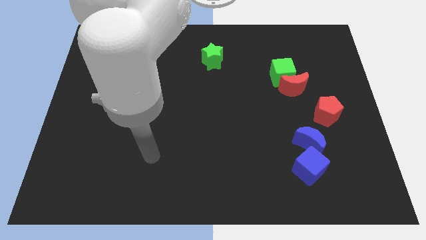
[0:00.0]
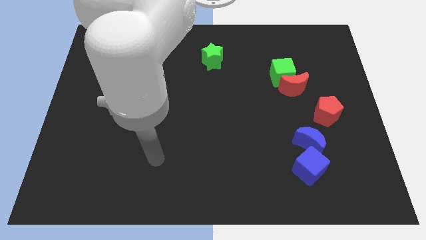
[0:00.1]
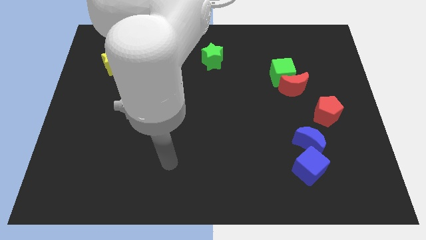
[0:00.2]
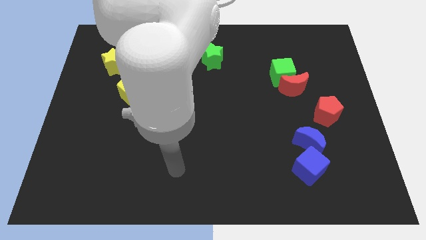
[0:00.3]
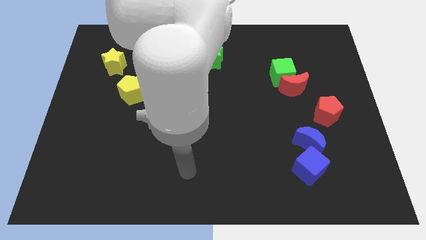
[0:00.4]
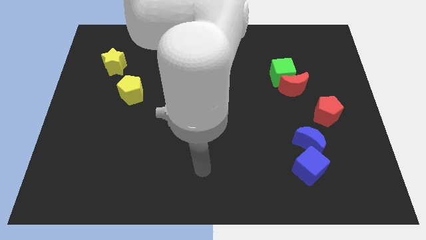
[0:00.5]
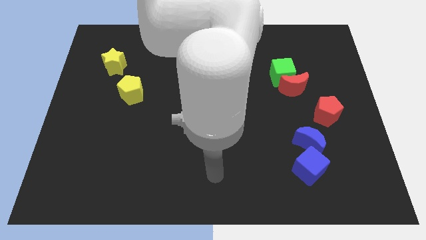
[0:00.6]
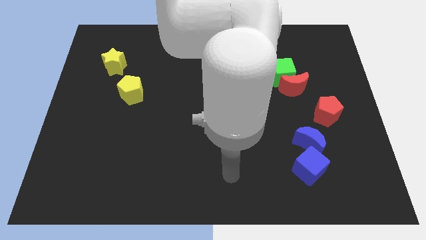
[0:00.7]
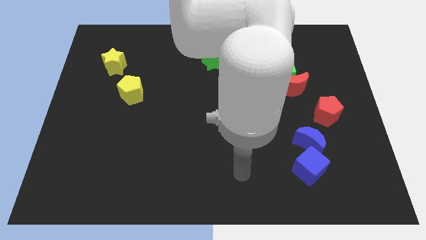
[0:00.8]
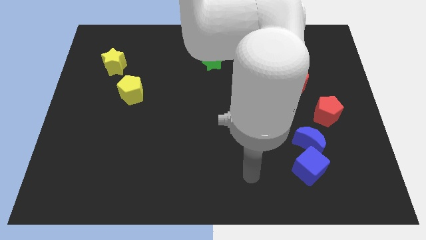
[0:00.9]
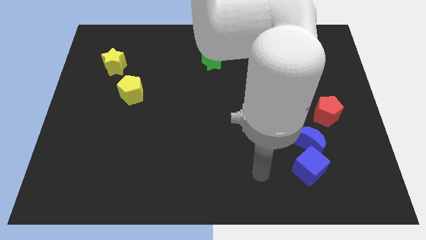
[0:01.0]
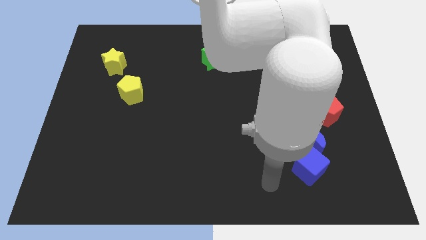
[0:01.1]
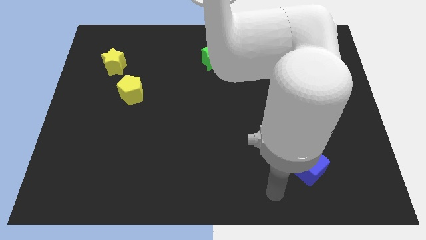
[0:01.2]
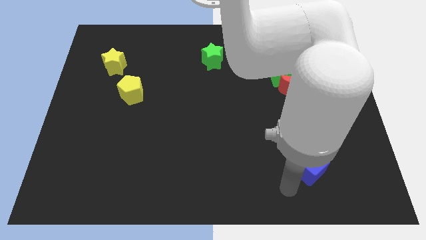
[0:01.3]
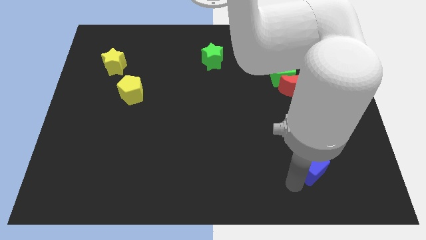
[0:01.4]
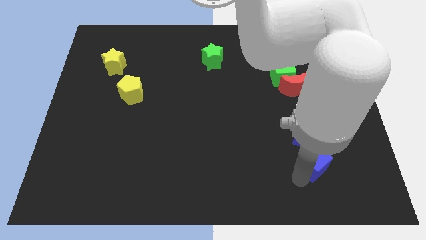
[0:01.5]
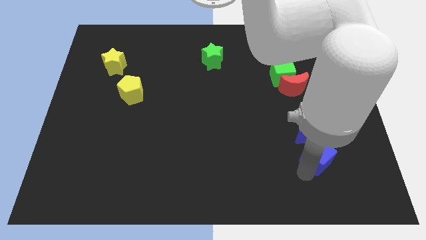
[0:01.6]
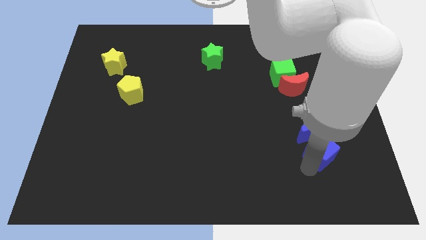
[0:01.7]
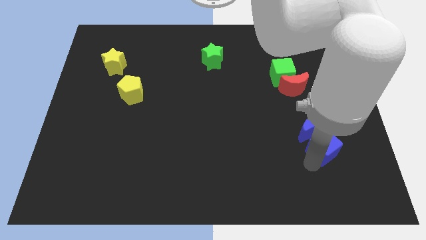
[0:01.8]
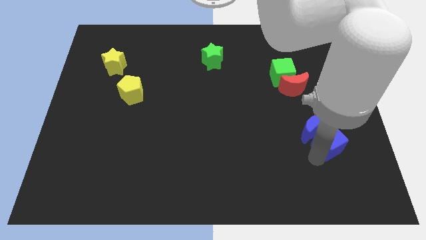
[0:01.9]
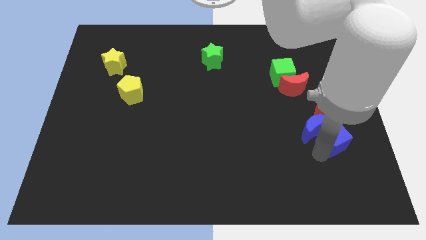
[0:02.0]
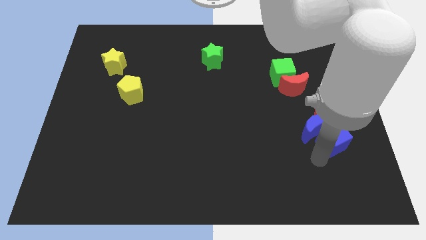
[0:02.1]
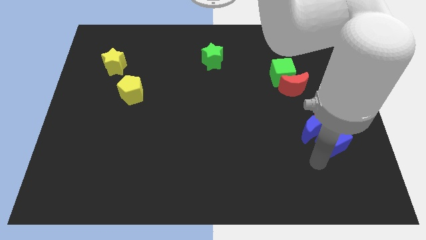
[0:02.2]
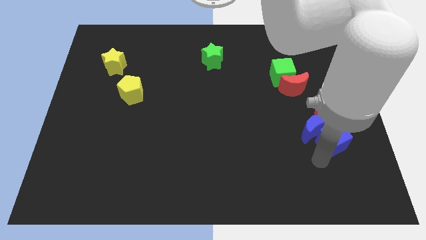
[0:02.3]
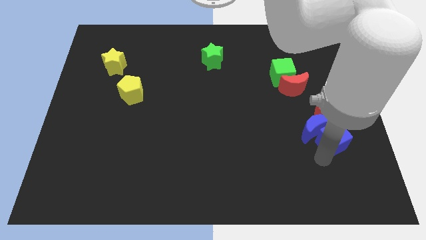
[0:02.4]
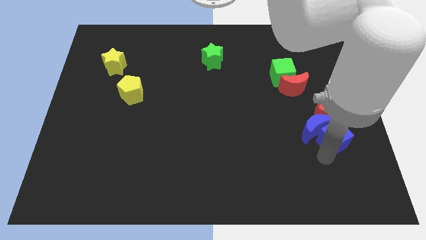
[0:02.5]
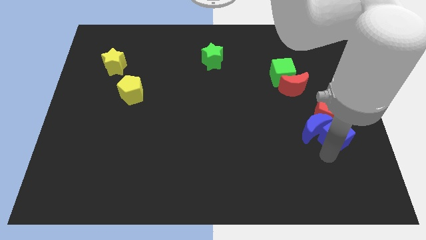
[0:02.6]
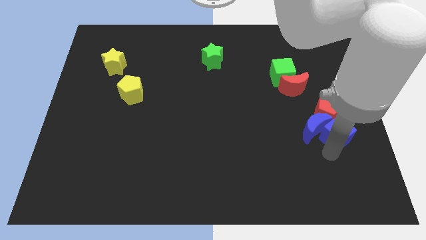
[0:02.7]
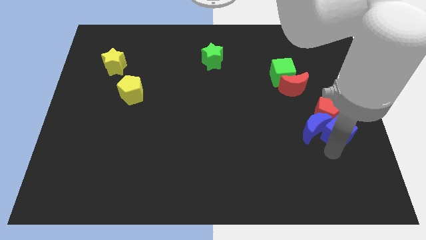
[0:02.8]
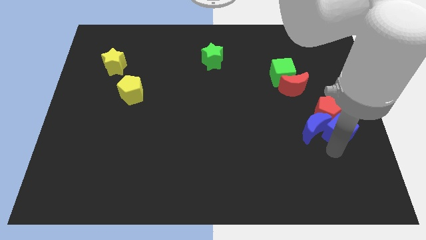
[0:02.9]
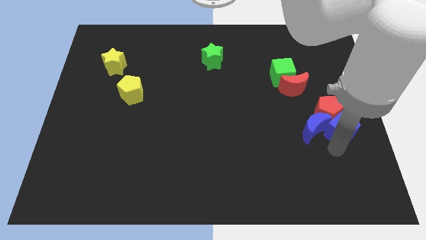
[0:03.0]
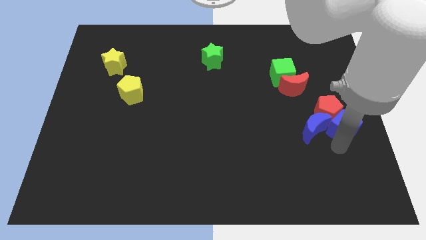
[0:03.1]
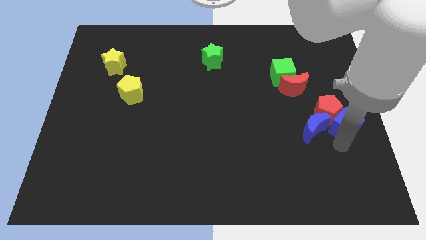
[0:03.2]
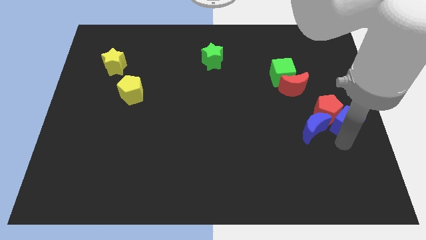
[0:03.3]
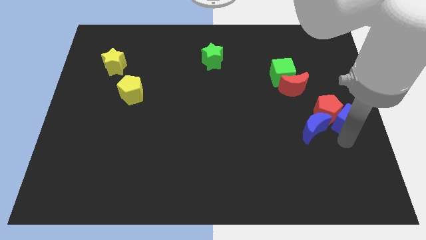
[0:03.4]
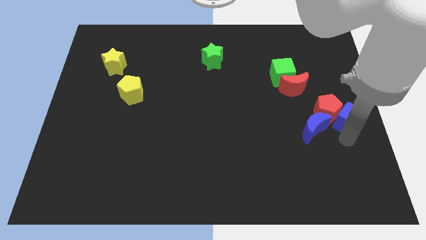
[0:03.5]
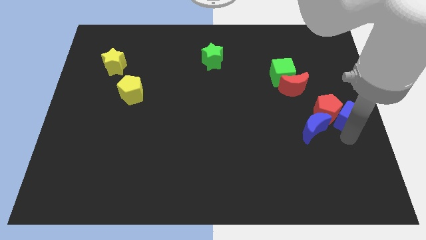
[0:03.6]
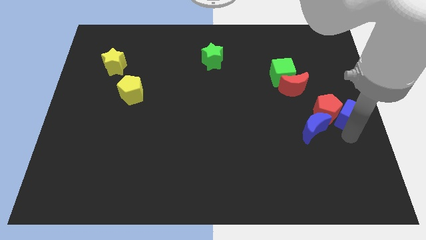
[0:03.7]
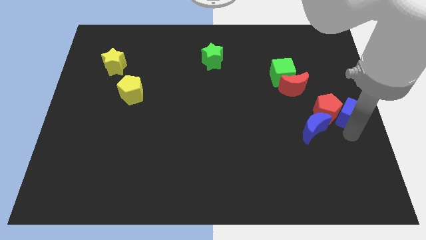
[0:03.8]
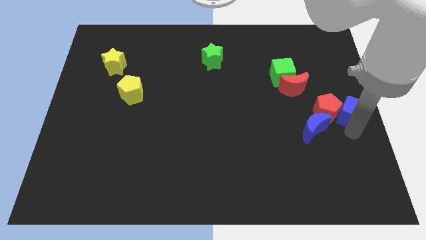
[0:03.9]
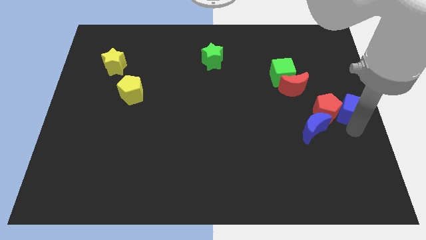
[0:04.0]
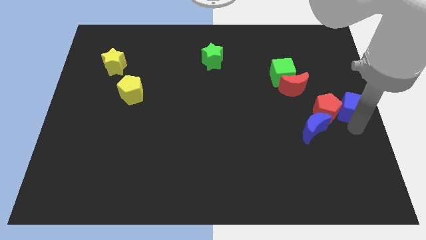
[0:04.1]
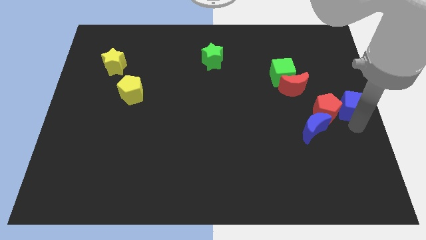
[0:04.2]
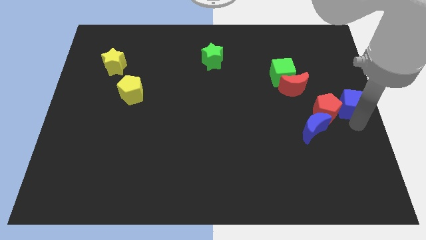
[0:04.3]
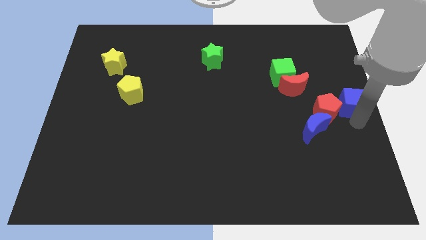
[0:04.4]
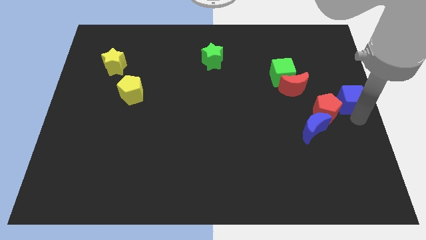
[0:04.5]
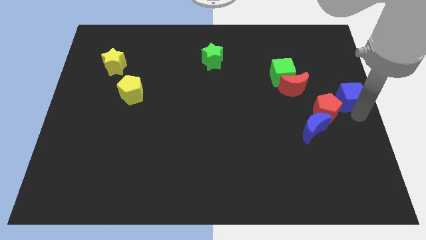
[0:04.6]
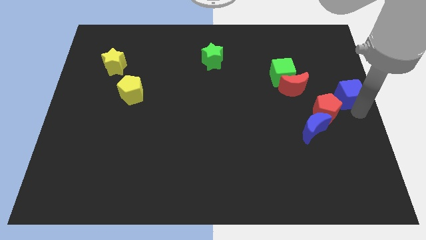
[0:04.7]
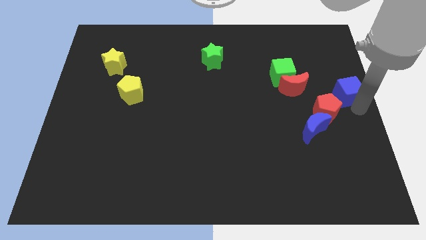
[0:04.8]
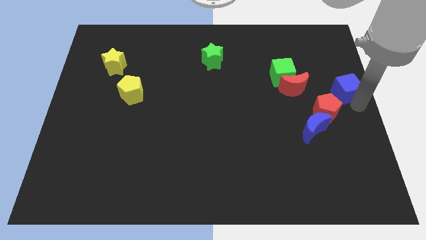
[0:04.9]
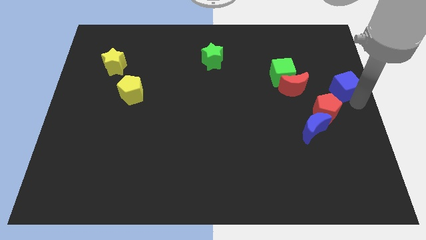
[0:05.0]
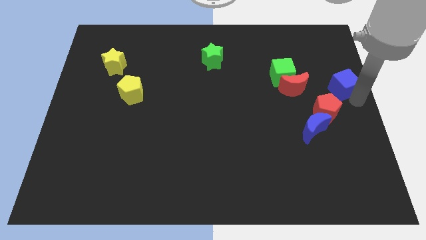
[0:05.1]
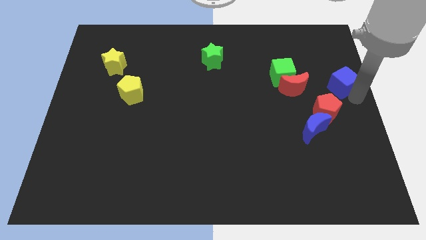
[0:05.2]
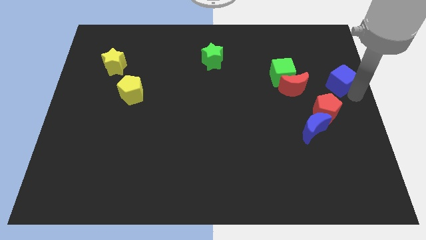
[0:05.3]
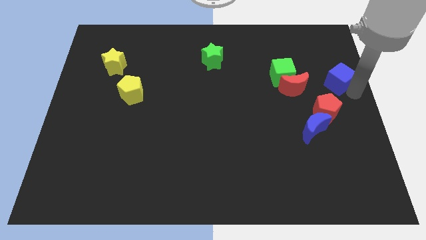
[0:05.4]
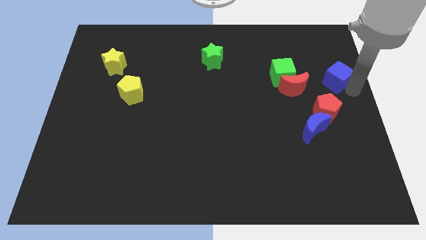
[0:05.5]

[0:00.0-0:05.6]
move the blue cube to the top side of the red pentagon

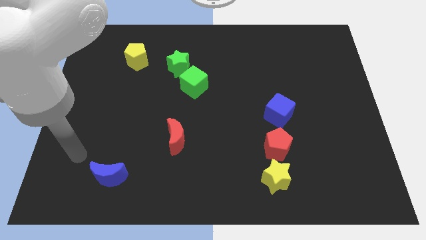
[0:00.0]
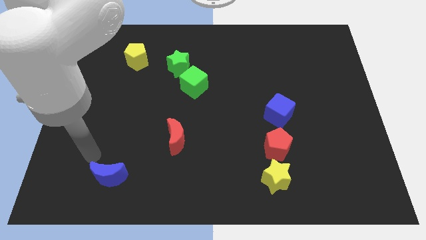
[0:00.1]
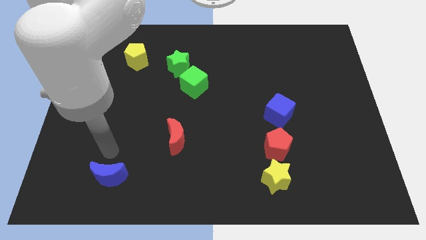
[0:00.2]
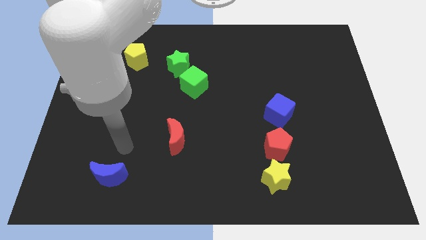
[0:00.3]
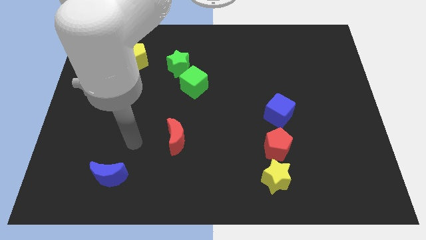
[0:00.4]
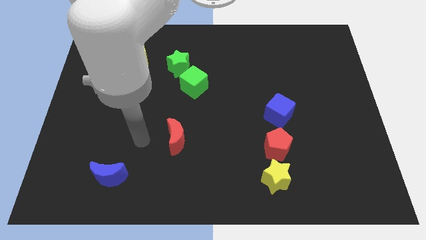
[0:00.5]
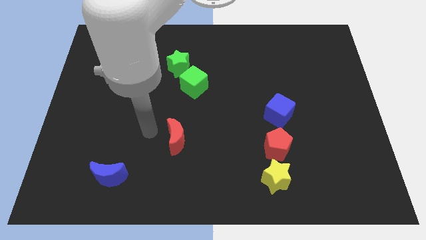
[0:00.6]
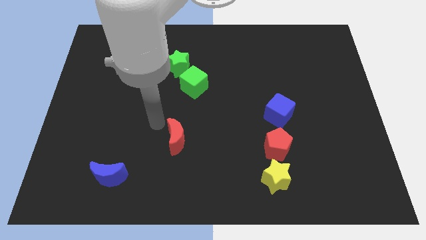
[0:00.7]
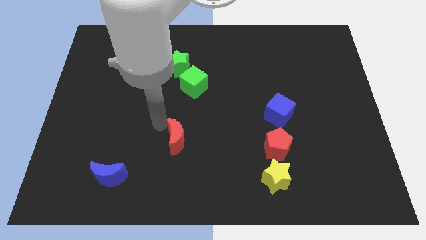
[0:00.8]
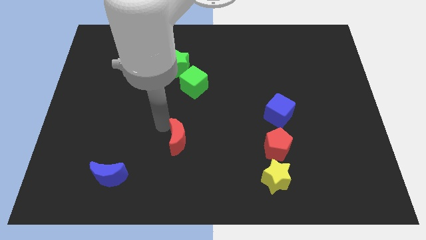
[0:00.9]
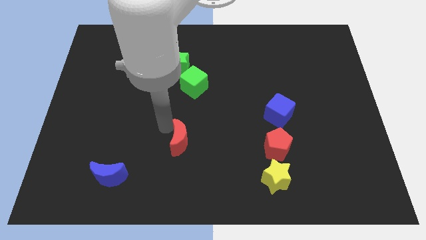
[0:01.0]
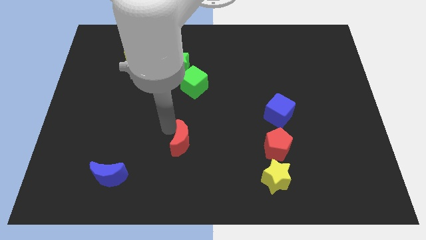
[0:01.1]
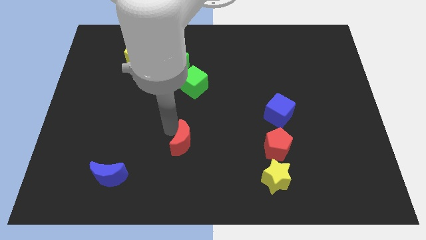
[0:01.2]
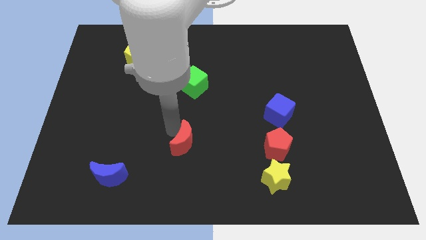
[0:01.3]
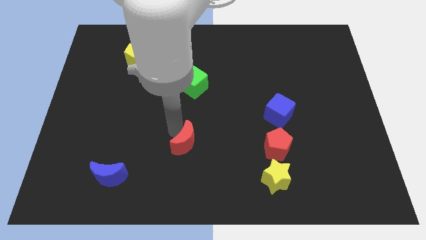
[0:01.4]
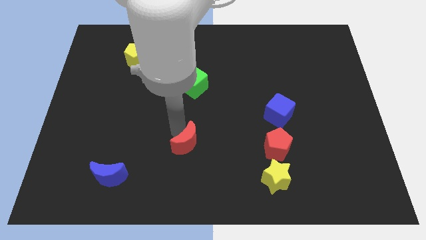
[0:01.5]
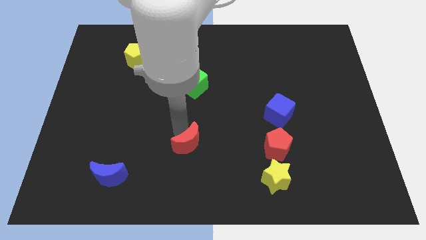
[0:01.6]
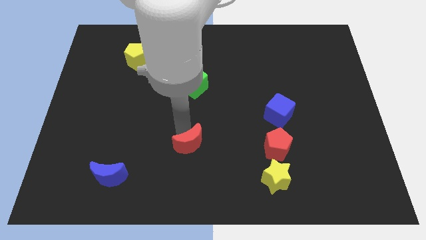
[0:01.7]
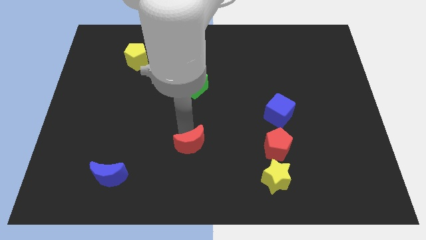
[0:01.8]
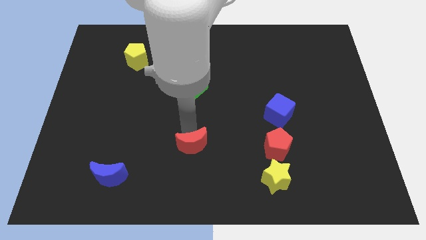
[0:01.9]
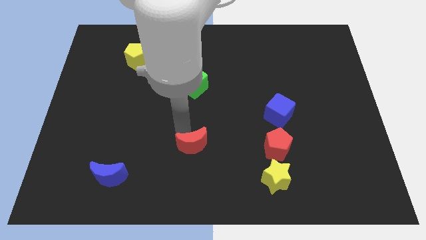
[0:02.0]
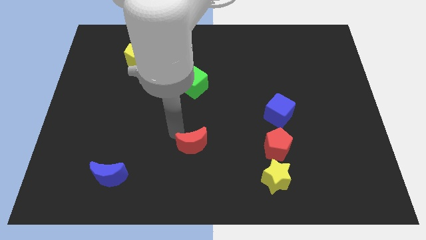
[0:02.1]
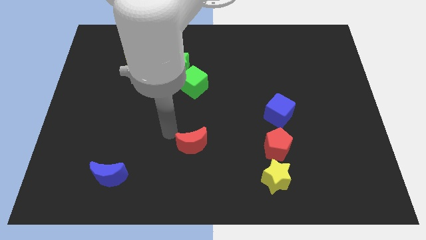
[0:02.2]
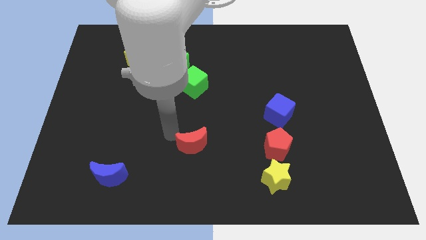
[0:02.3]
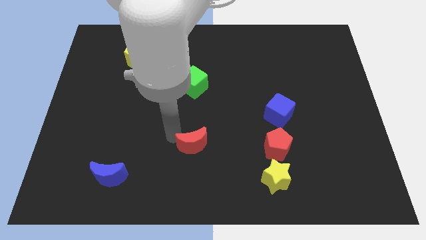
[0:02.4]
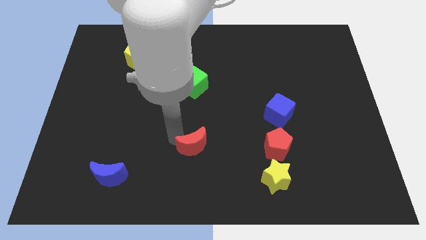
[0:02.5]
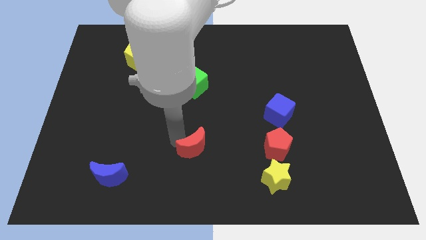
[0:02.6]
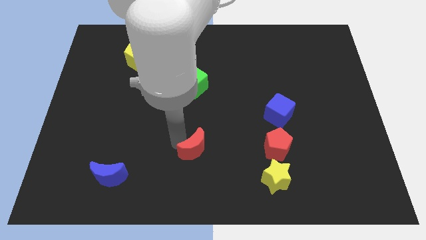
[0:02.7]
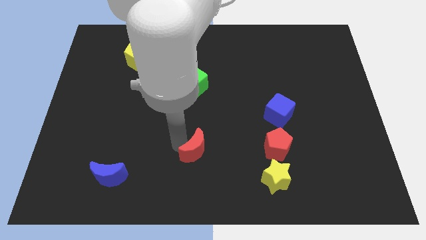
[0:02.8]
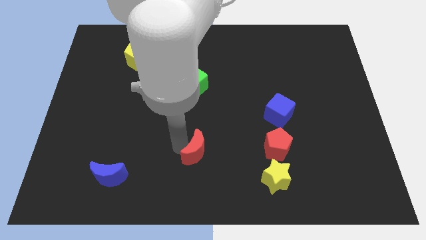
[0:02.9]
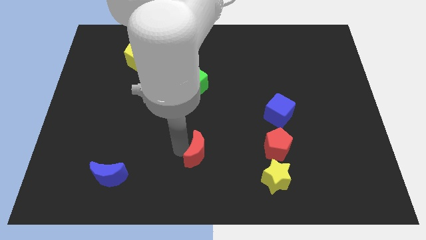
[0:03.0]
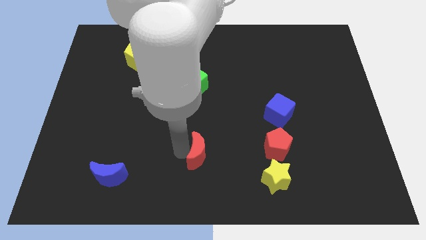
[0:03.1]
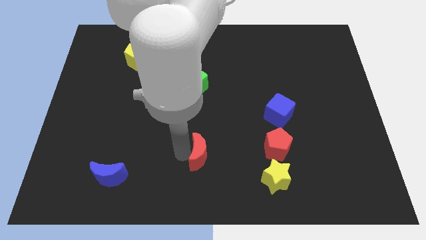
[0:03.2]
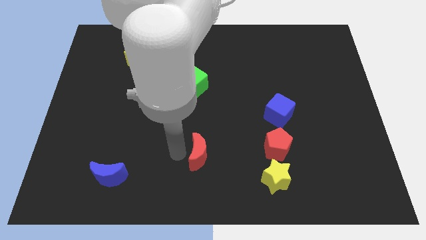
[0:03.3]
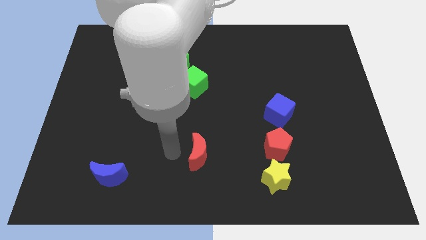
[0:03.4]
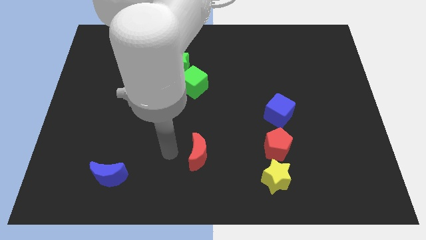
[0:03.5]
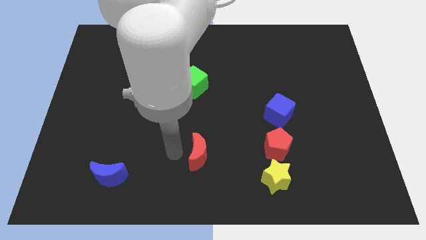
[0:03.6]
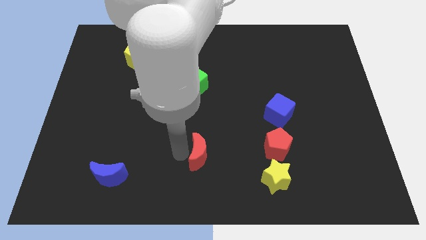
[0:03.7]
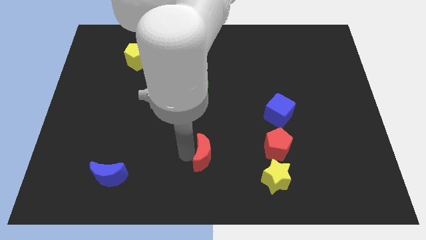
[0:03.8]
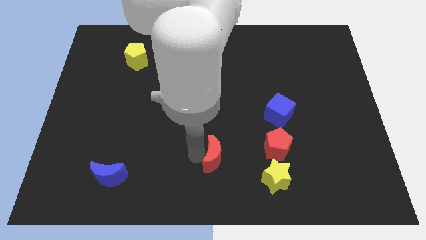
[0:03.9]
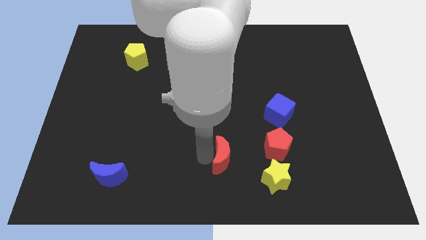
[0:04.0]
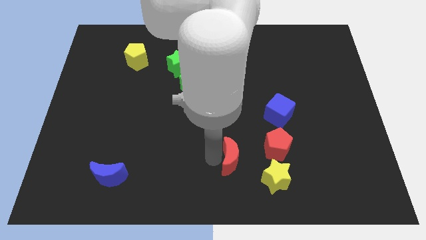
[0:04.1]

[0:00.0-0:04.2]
move the red moon diagonally up and to the left of the yellow star
